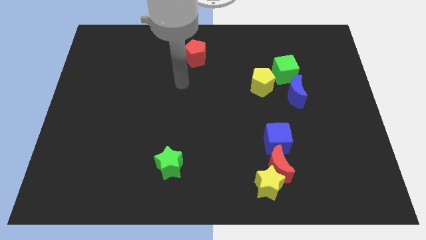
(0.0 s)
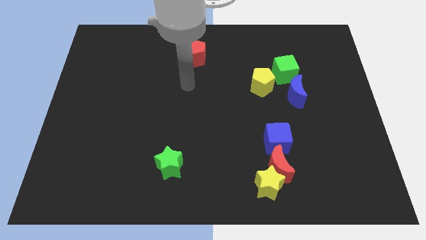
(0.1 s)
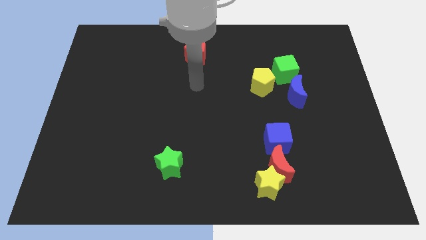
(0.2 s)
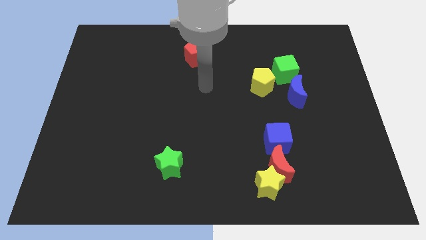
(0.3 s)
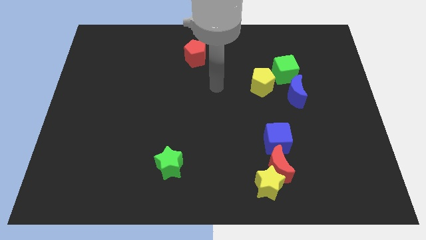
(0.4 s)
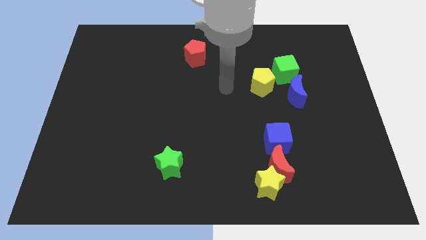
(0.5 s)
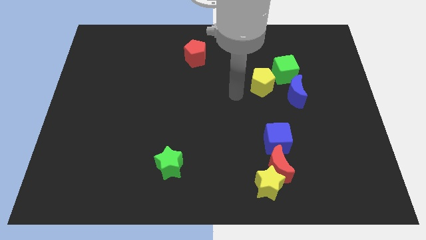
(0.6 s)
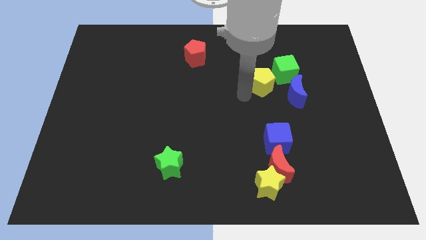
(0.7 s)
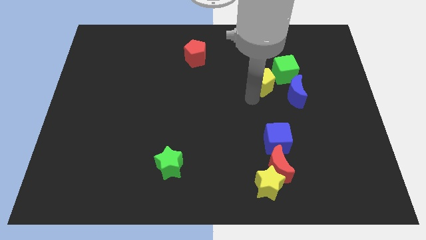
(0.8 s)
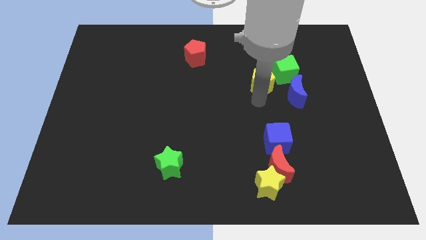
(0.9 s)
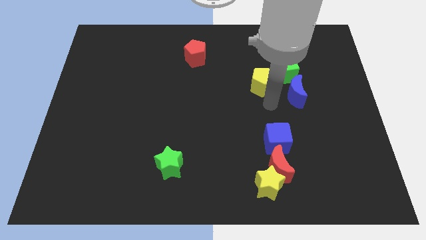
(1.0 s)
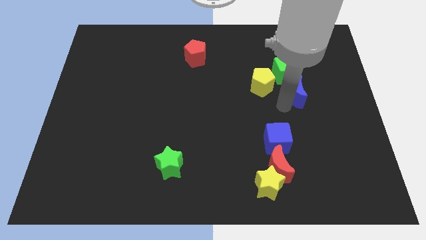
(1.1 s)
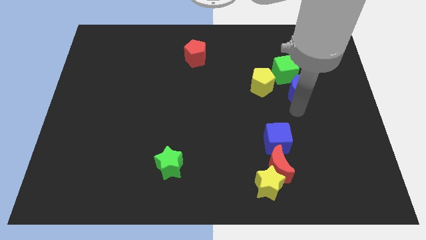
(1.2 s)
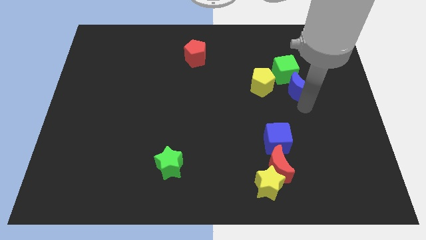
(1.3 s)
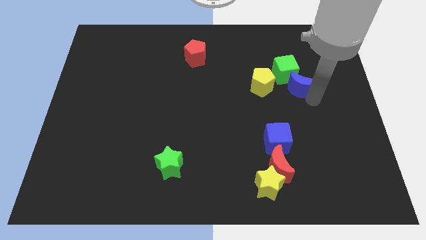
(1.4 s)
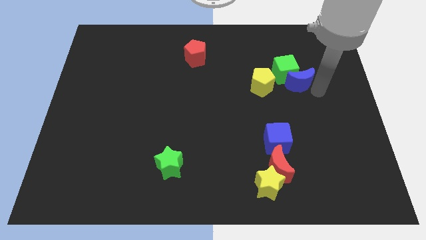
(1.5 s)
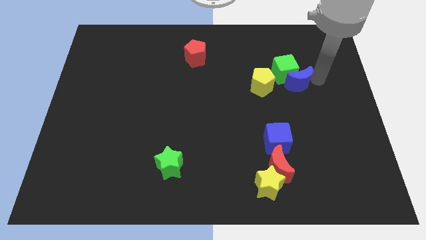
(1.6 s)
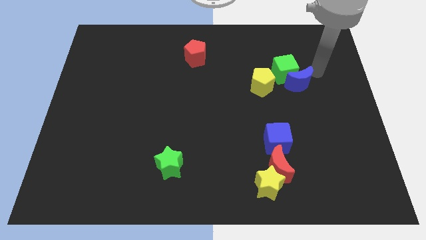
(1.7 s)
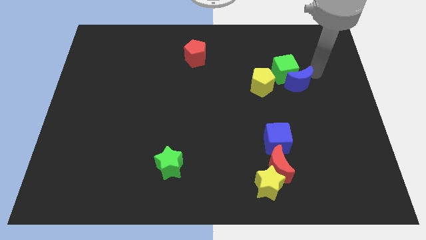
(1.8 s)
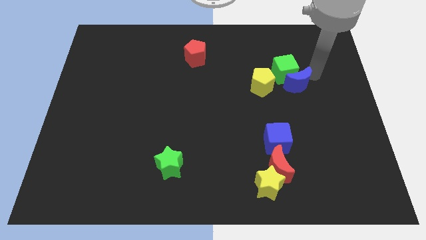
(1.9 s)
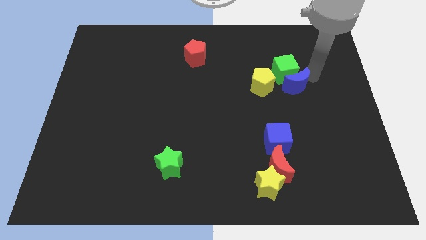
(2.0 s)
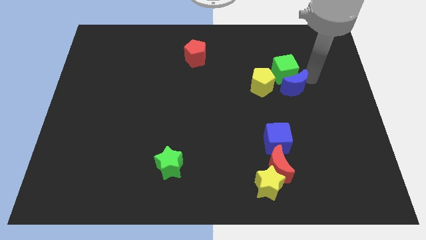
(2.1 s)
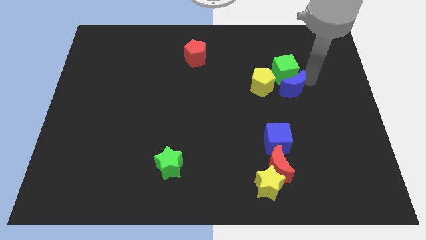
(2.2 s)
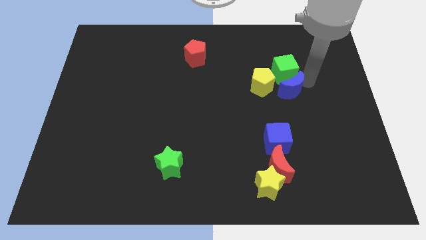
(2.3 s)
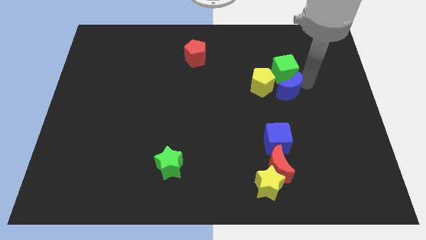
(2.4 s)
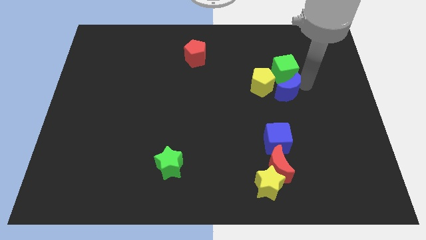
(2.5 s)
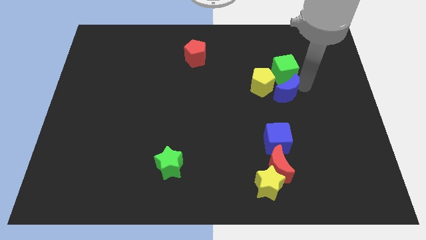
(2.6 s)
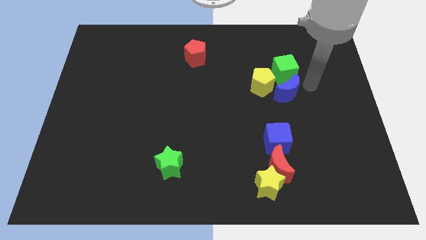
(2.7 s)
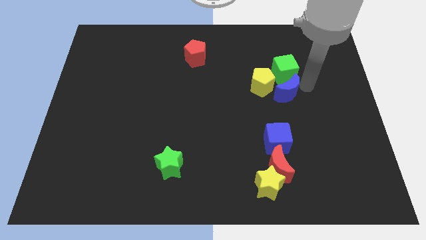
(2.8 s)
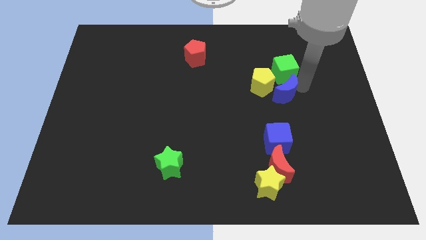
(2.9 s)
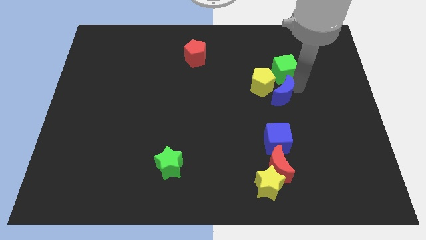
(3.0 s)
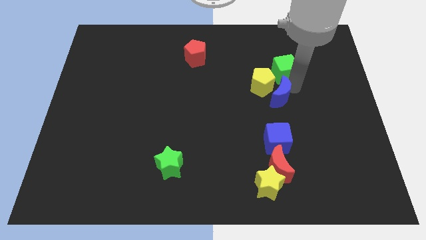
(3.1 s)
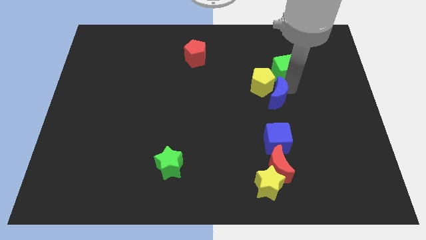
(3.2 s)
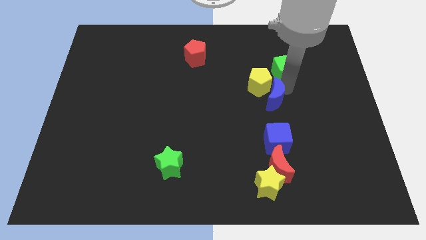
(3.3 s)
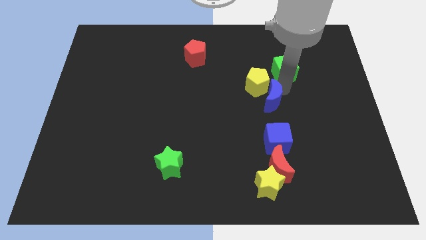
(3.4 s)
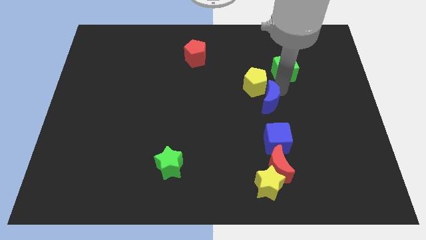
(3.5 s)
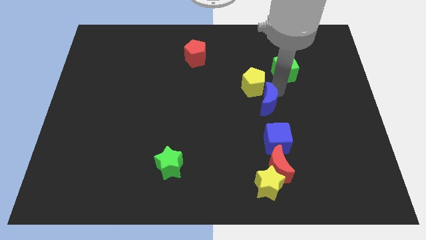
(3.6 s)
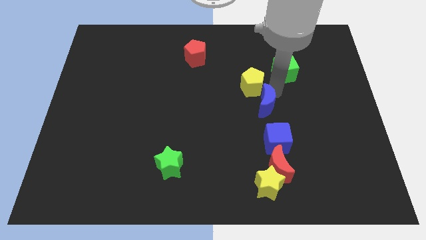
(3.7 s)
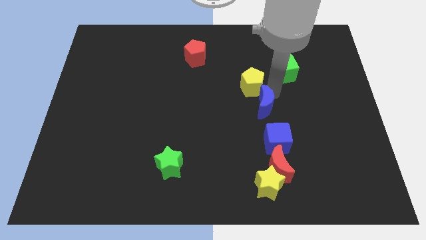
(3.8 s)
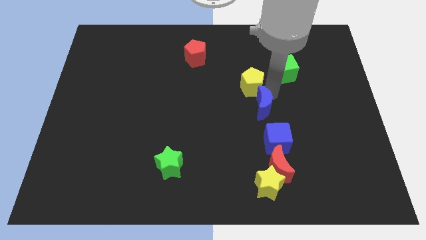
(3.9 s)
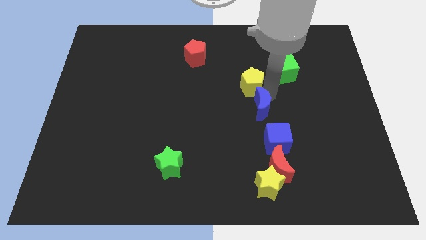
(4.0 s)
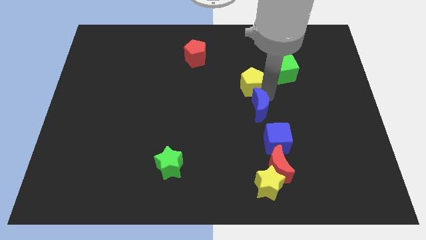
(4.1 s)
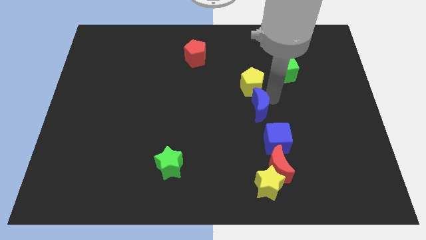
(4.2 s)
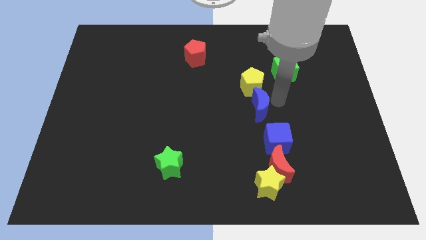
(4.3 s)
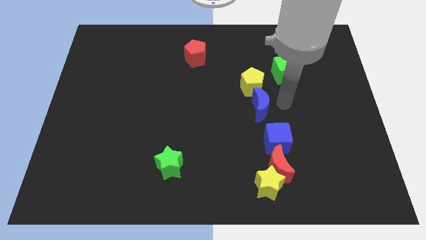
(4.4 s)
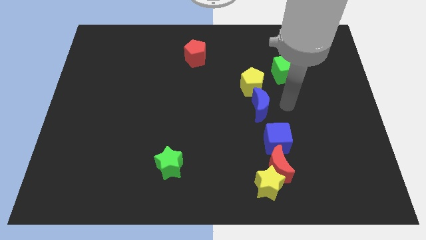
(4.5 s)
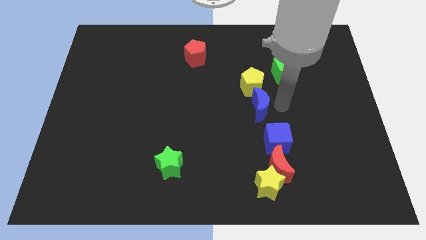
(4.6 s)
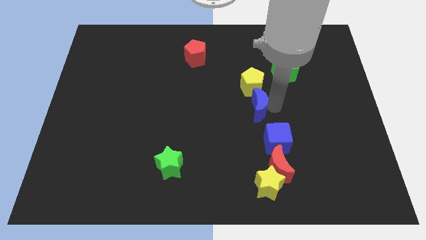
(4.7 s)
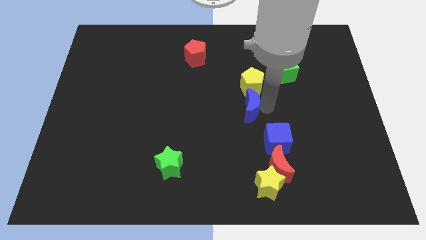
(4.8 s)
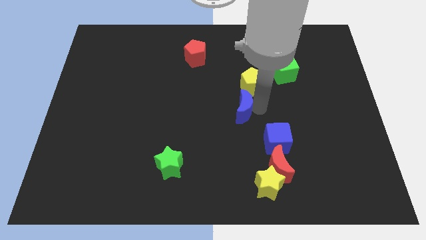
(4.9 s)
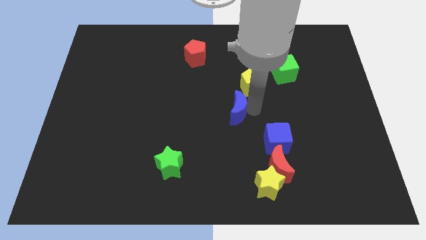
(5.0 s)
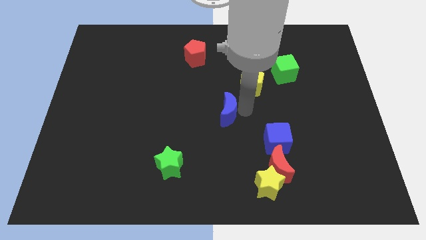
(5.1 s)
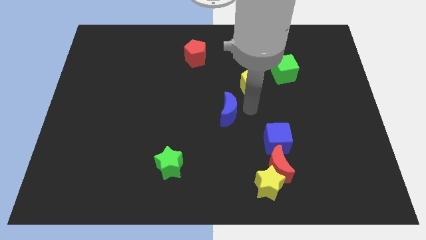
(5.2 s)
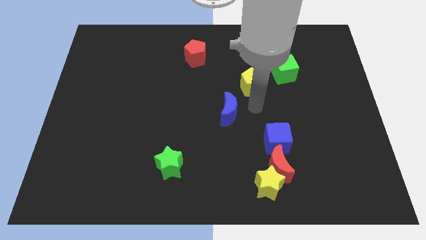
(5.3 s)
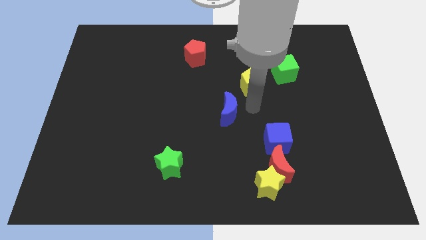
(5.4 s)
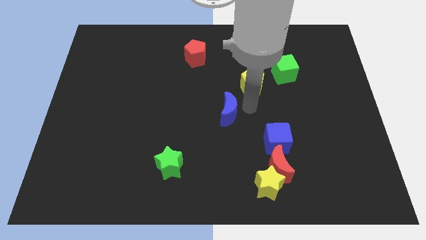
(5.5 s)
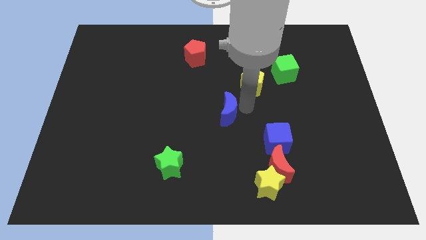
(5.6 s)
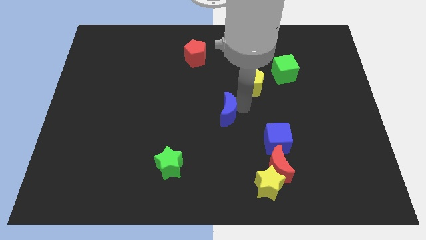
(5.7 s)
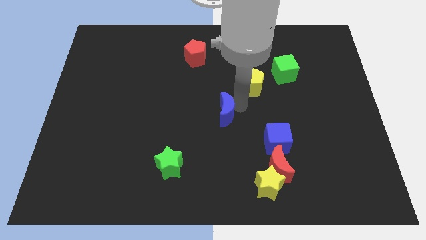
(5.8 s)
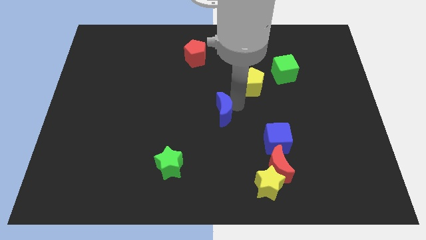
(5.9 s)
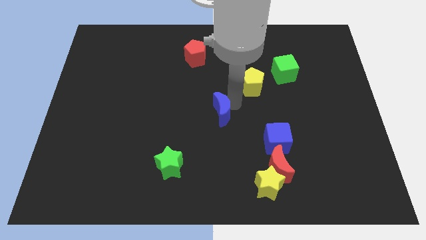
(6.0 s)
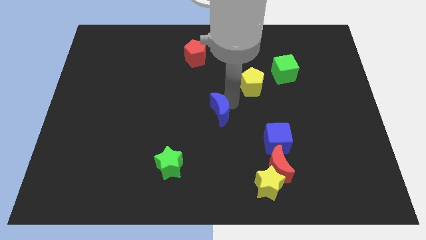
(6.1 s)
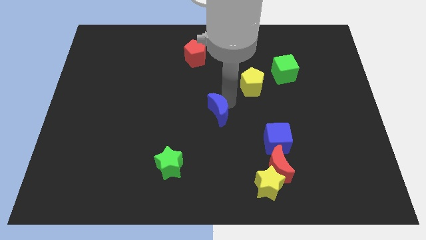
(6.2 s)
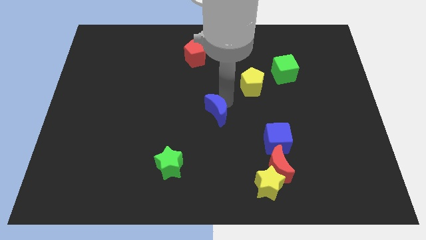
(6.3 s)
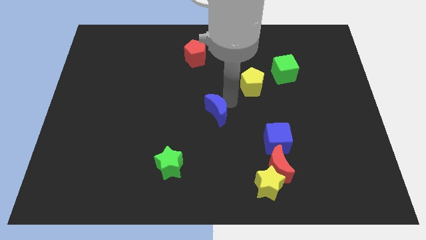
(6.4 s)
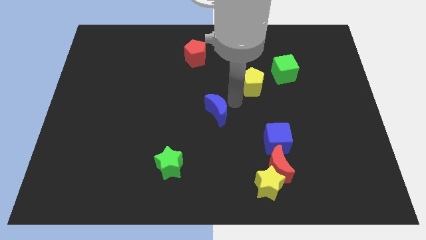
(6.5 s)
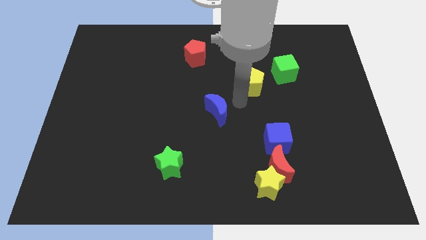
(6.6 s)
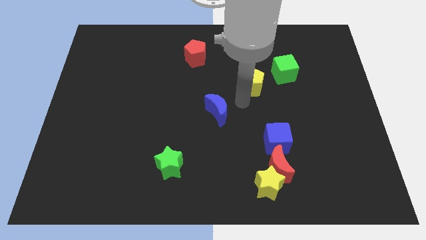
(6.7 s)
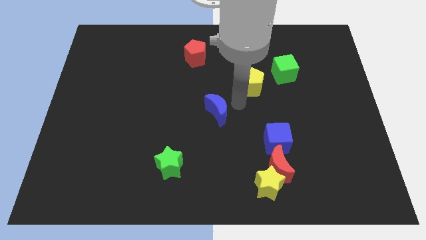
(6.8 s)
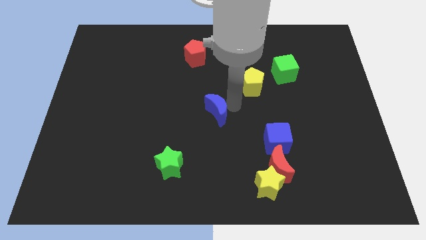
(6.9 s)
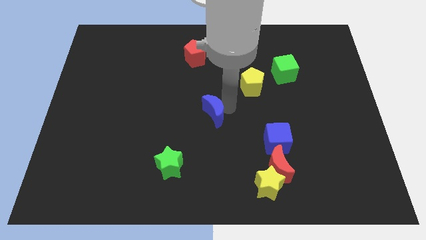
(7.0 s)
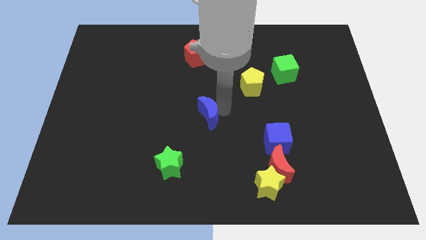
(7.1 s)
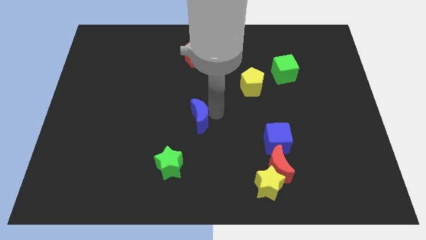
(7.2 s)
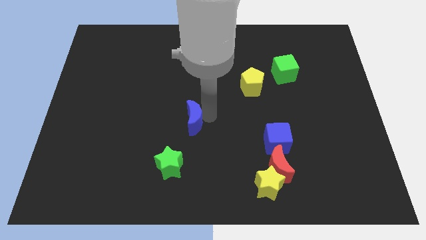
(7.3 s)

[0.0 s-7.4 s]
put the blue moon to the top of the green star

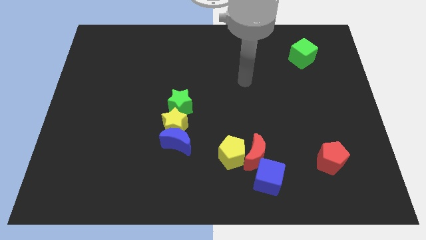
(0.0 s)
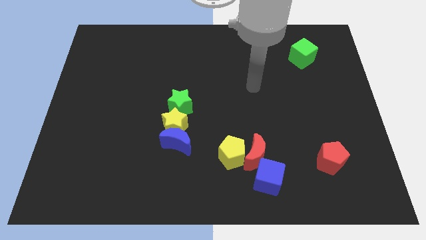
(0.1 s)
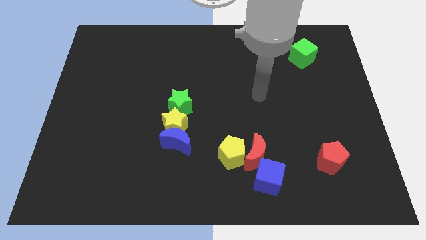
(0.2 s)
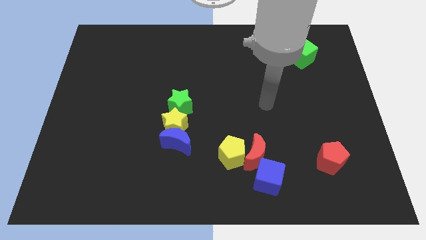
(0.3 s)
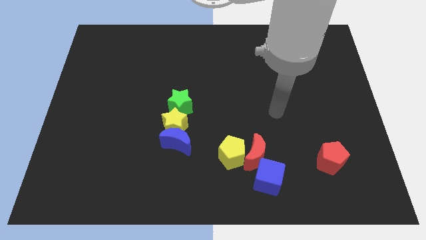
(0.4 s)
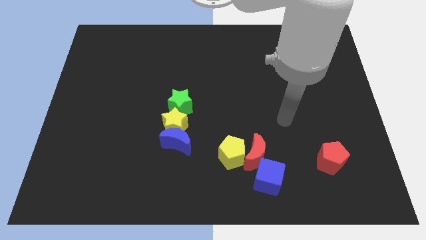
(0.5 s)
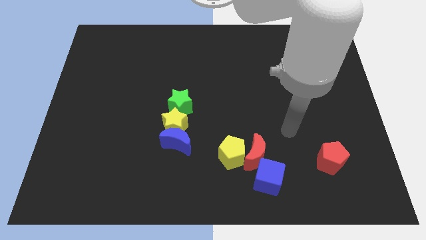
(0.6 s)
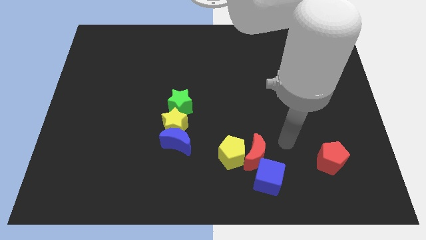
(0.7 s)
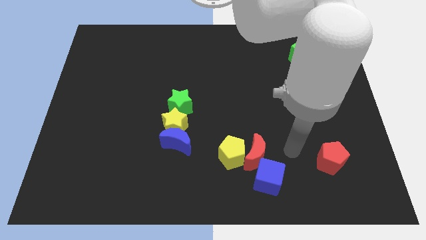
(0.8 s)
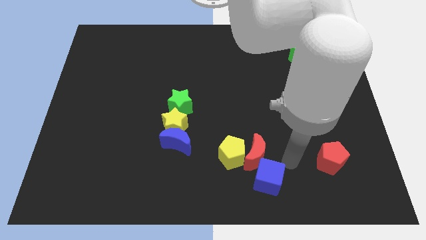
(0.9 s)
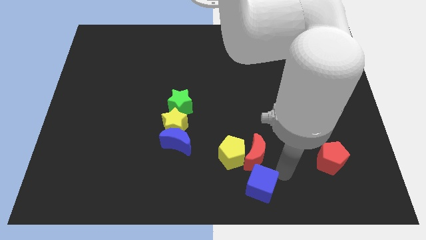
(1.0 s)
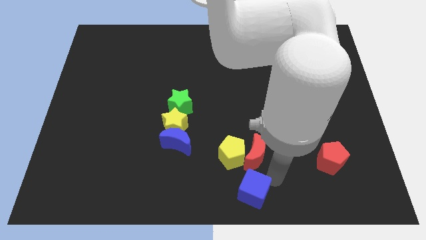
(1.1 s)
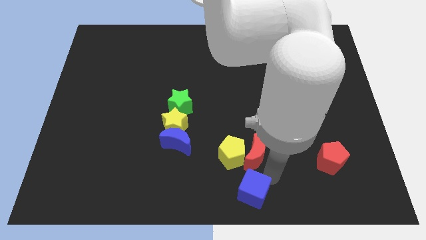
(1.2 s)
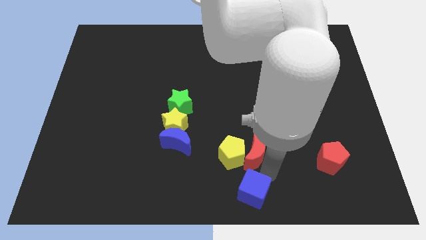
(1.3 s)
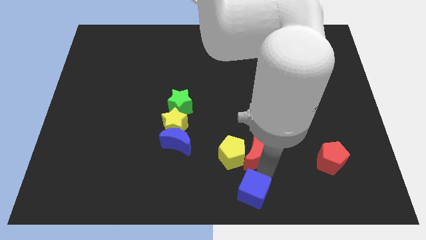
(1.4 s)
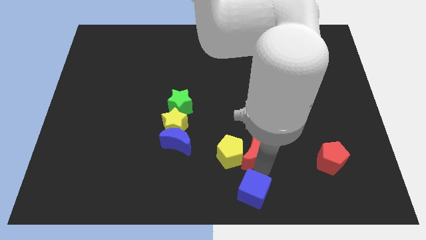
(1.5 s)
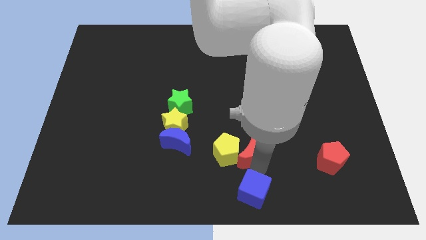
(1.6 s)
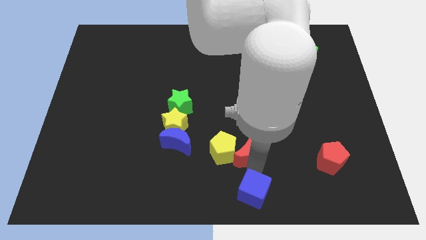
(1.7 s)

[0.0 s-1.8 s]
slide the red moon just right of the blue moon
